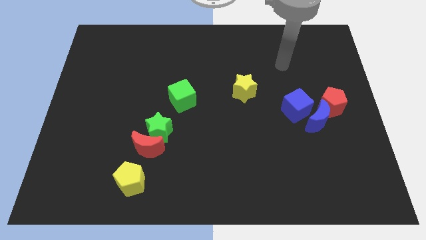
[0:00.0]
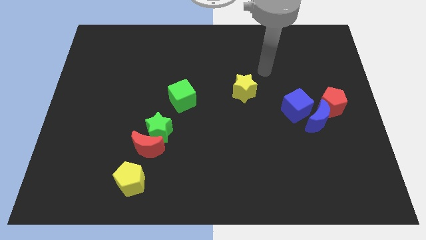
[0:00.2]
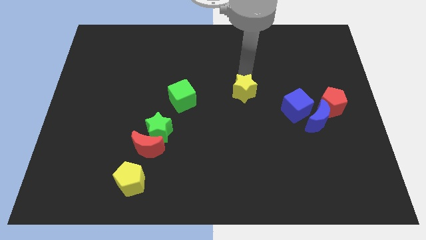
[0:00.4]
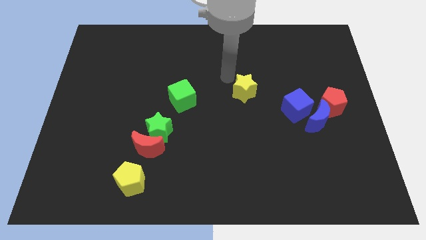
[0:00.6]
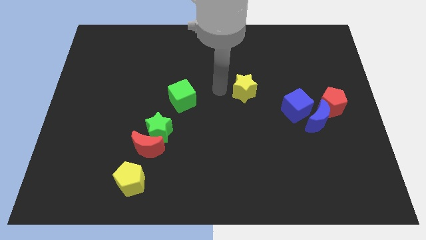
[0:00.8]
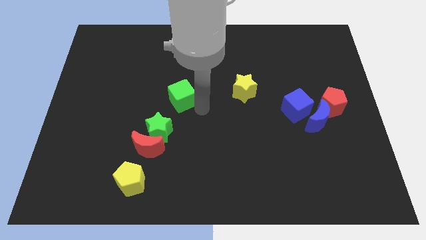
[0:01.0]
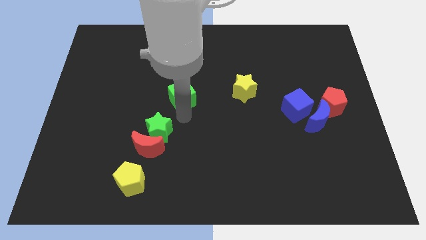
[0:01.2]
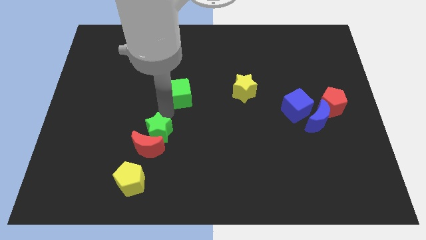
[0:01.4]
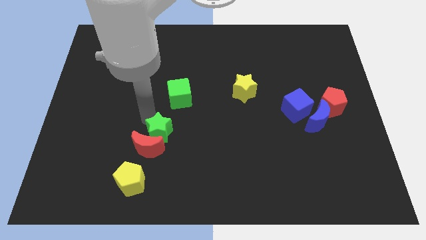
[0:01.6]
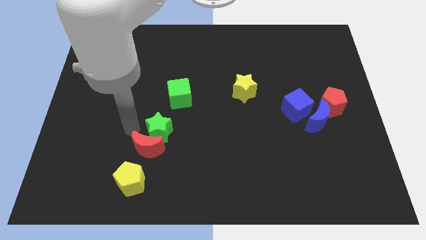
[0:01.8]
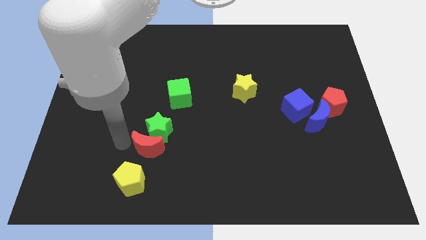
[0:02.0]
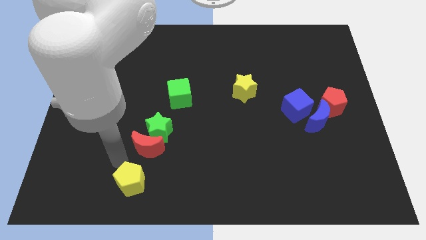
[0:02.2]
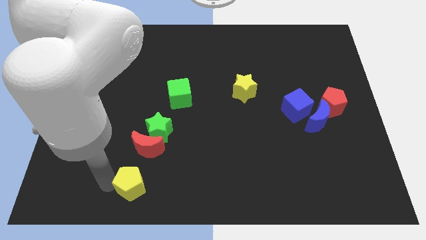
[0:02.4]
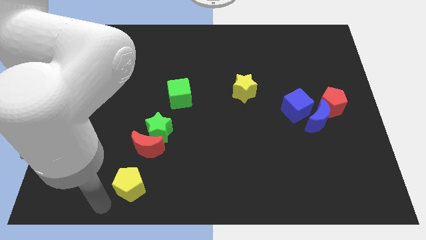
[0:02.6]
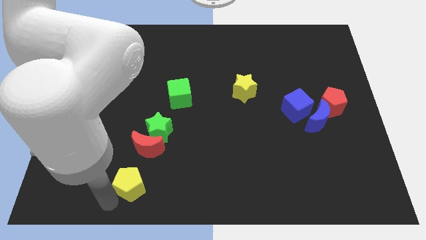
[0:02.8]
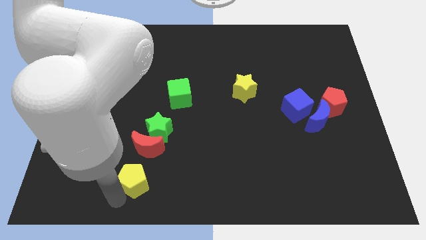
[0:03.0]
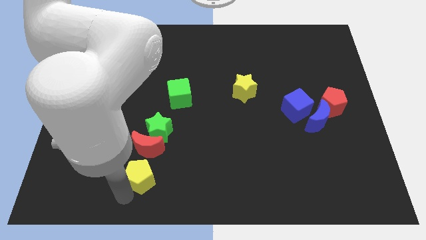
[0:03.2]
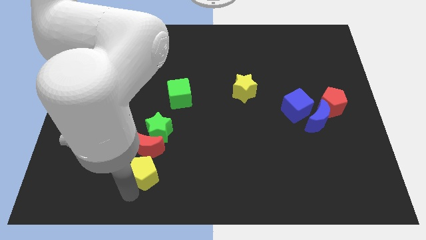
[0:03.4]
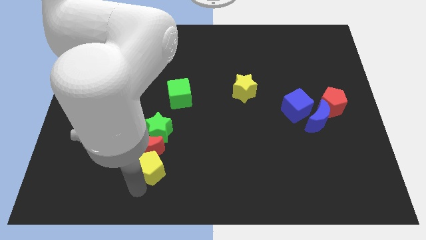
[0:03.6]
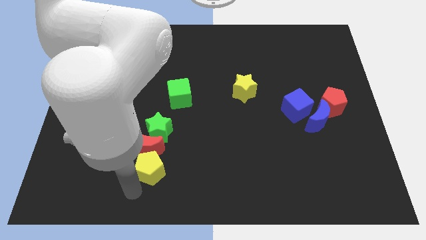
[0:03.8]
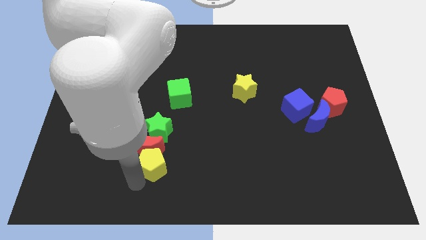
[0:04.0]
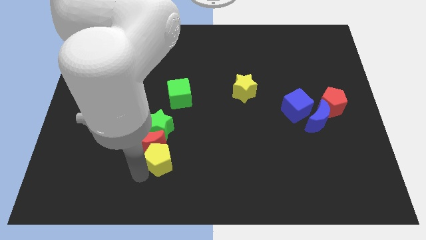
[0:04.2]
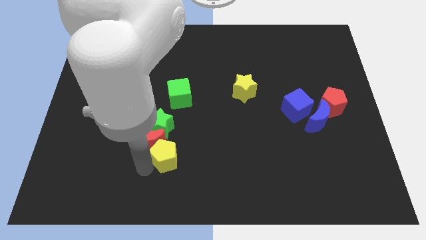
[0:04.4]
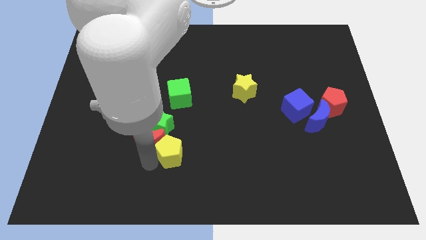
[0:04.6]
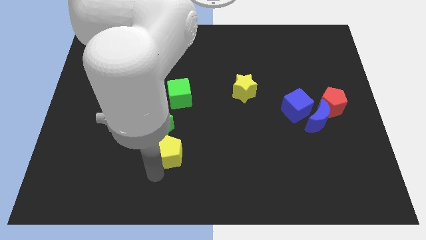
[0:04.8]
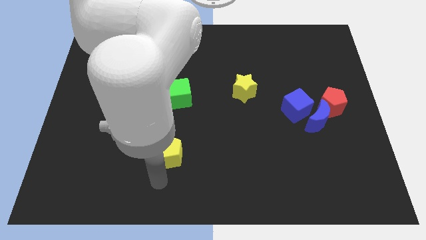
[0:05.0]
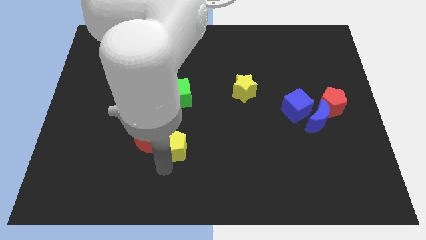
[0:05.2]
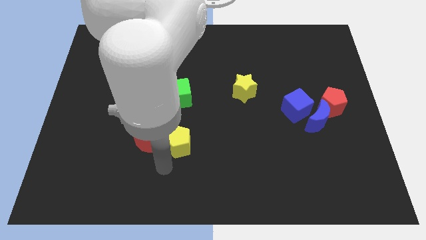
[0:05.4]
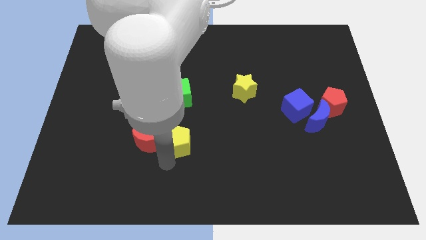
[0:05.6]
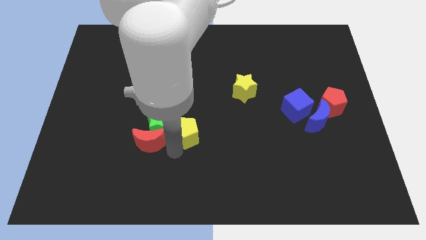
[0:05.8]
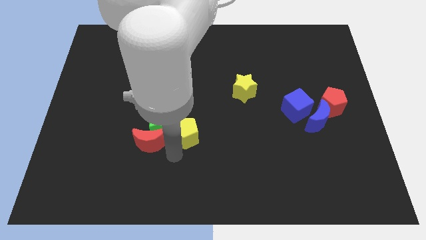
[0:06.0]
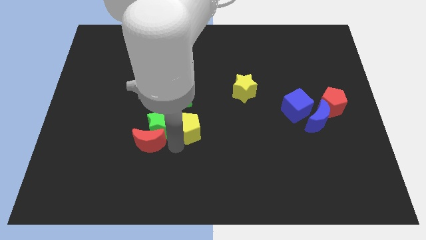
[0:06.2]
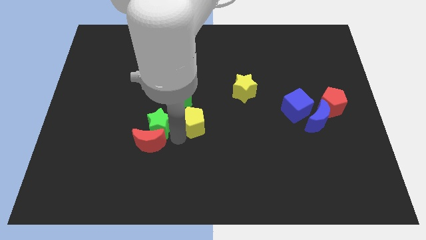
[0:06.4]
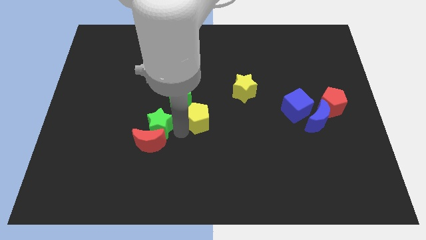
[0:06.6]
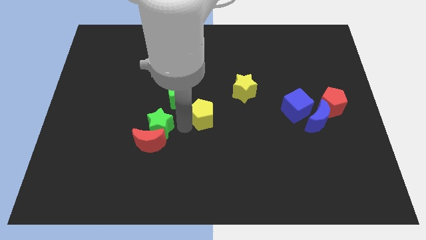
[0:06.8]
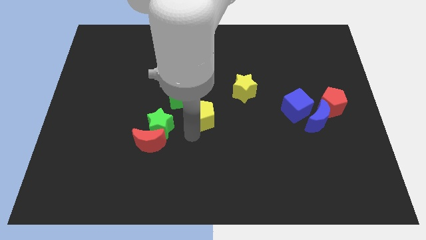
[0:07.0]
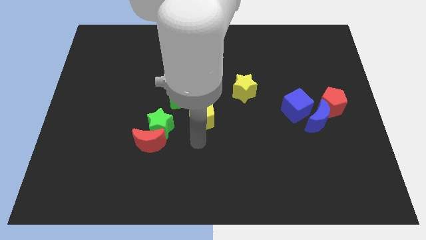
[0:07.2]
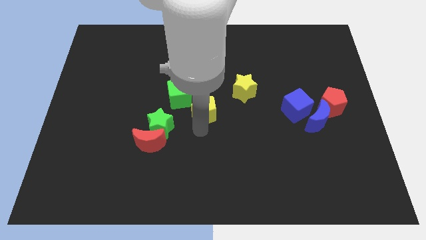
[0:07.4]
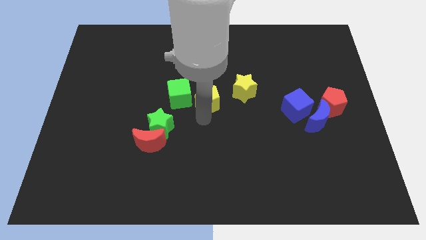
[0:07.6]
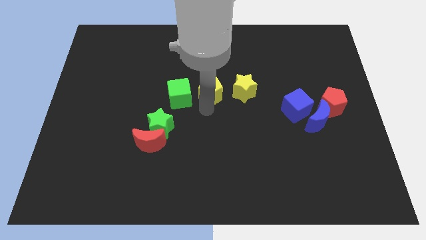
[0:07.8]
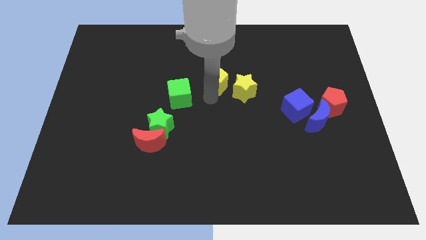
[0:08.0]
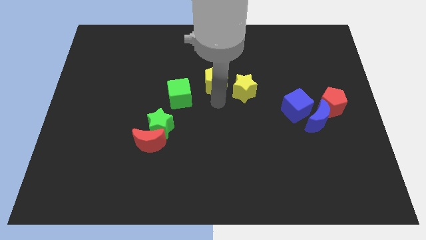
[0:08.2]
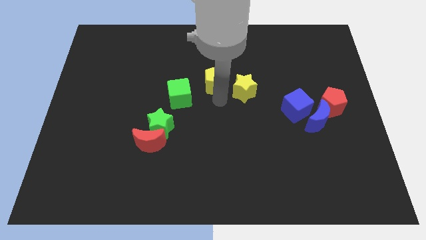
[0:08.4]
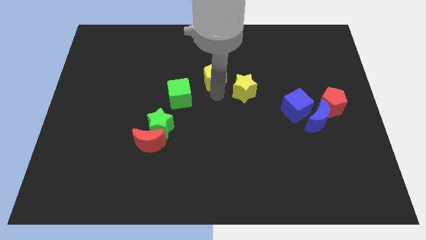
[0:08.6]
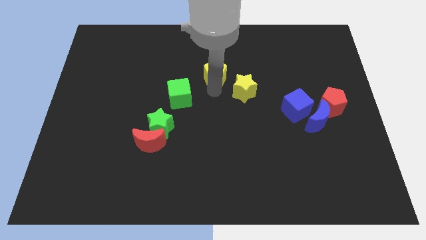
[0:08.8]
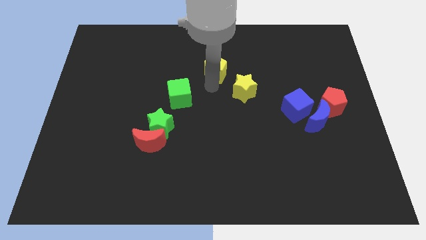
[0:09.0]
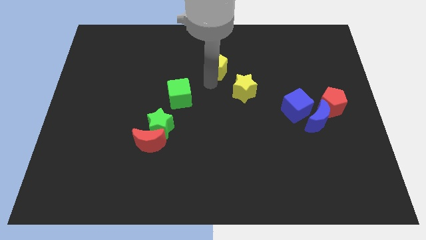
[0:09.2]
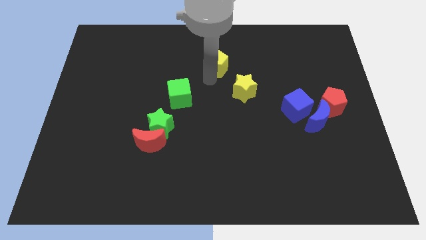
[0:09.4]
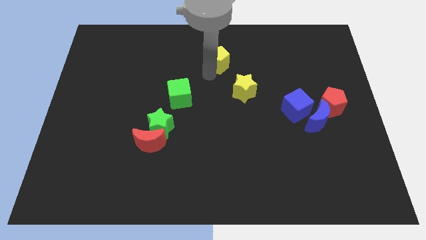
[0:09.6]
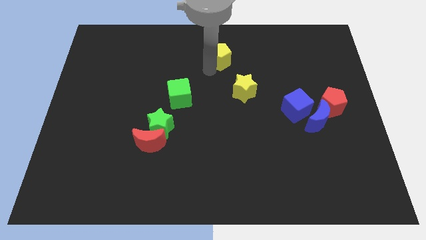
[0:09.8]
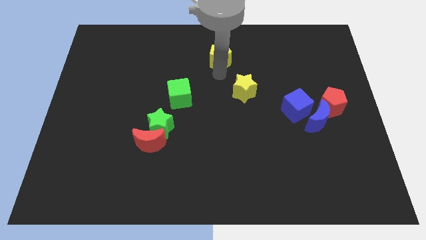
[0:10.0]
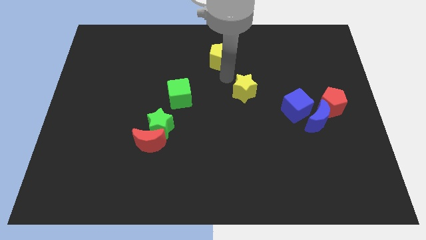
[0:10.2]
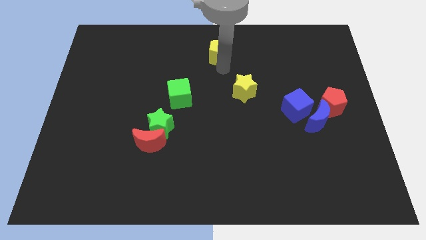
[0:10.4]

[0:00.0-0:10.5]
slide the yellow pentagon to the towards your base

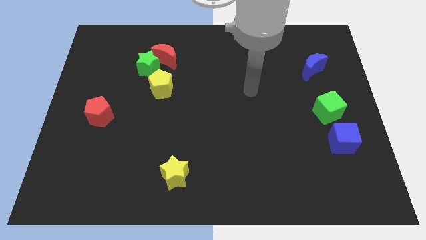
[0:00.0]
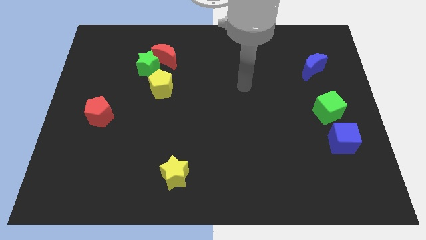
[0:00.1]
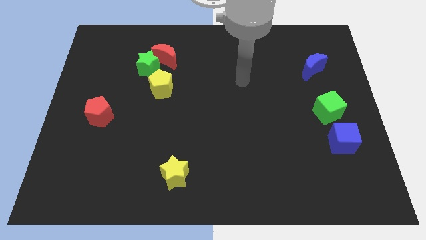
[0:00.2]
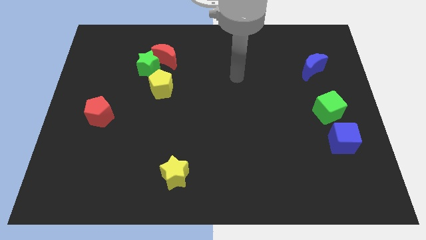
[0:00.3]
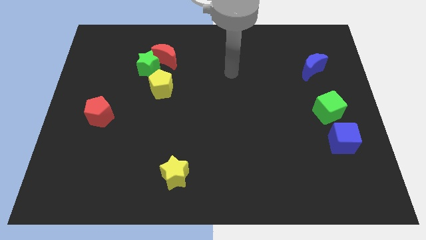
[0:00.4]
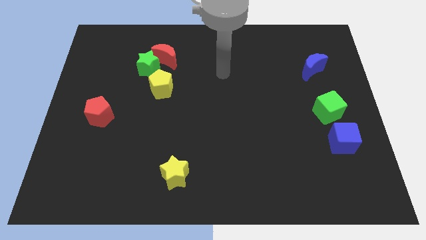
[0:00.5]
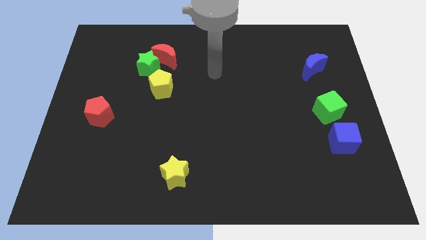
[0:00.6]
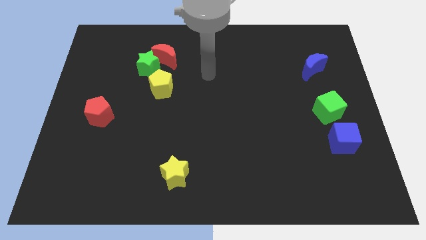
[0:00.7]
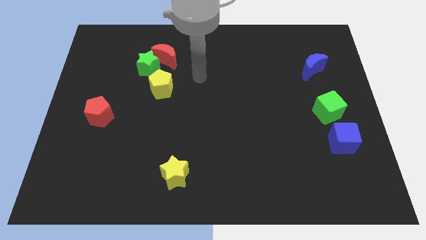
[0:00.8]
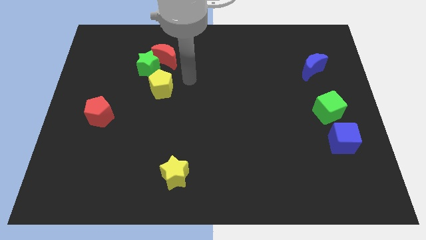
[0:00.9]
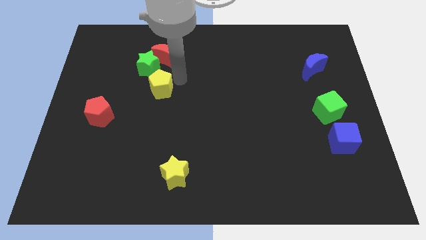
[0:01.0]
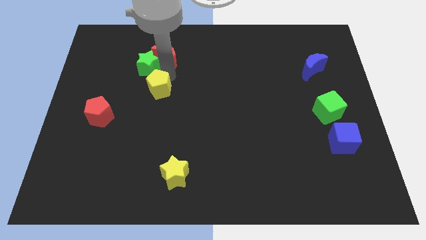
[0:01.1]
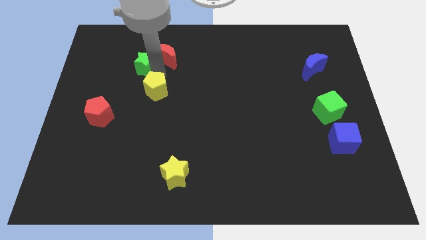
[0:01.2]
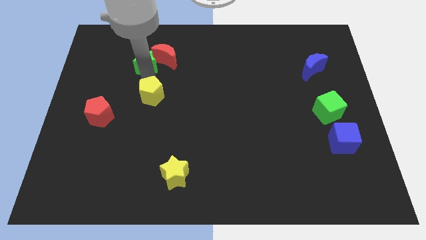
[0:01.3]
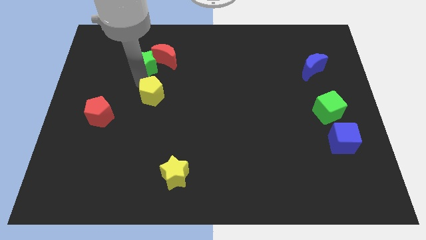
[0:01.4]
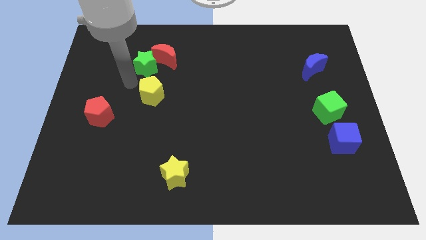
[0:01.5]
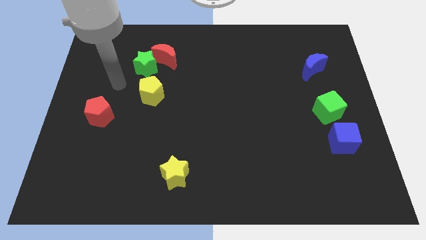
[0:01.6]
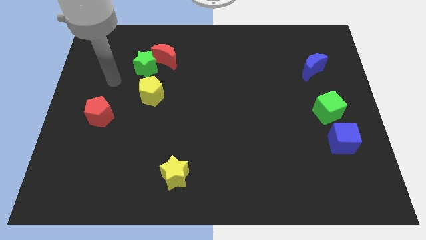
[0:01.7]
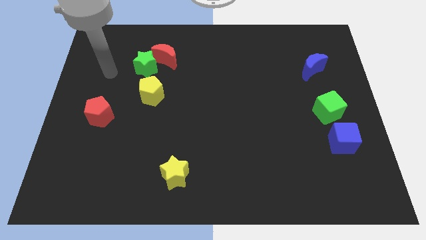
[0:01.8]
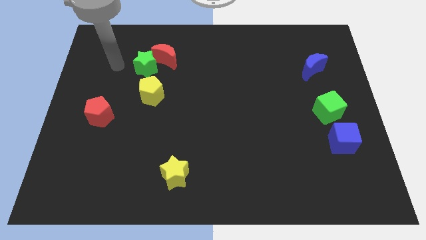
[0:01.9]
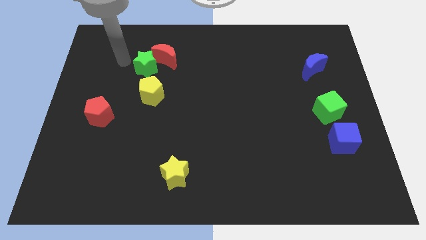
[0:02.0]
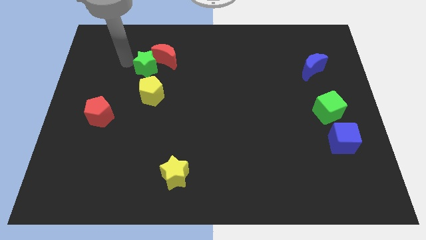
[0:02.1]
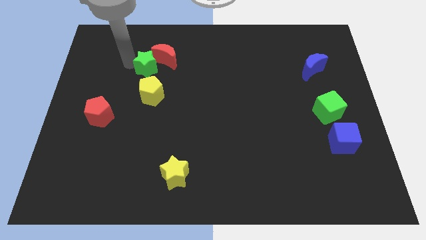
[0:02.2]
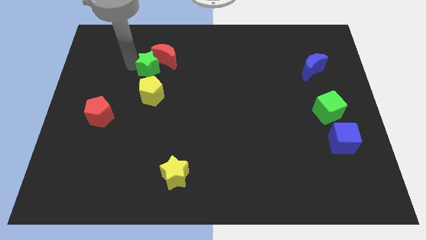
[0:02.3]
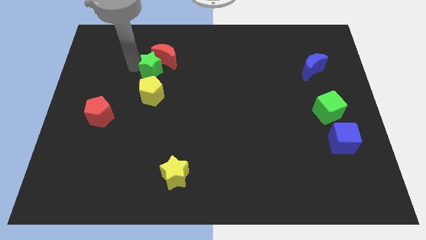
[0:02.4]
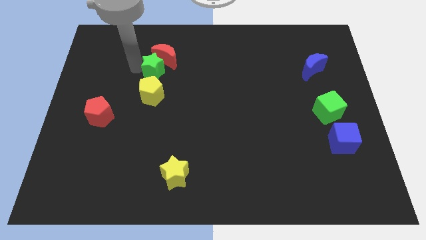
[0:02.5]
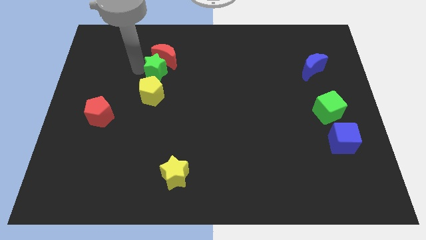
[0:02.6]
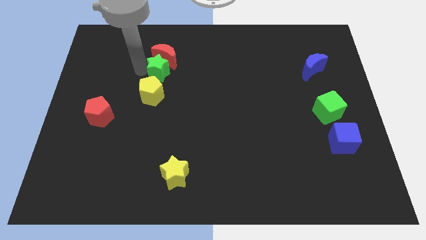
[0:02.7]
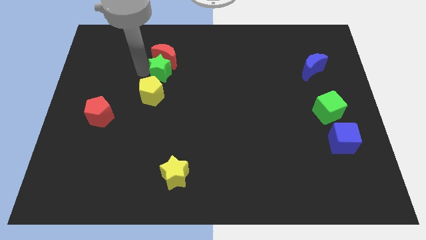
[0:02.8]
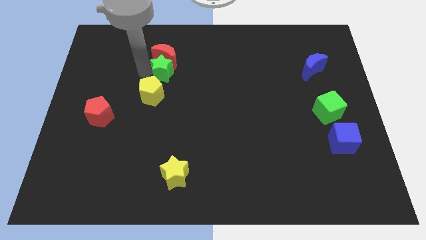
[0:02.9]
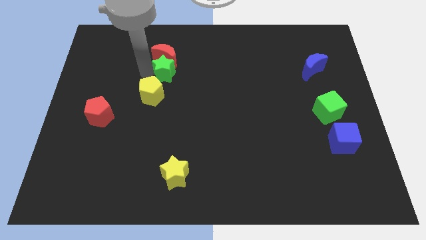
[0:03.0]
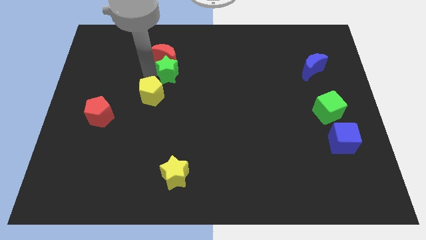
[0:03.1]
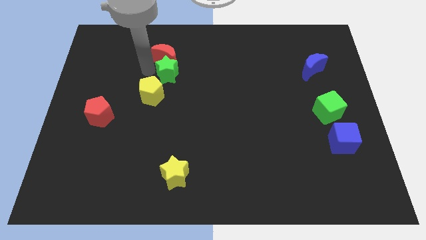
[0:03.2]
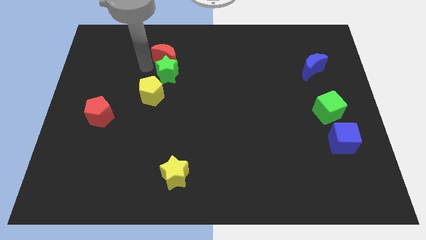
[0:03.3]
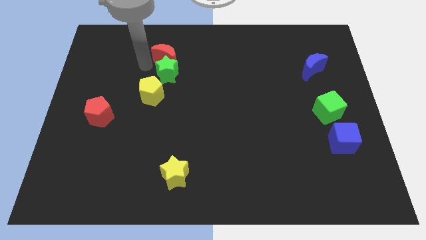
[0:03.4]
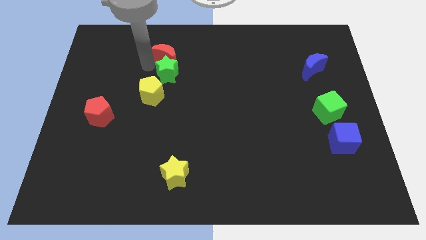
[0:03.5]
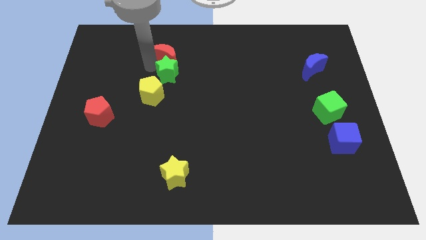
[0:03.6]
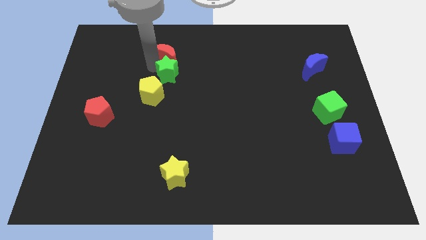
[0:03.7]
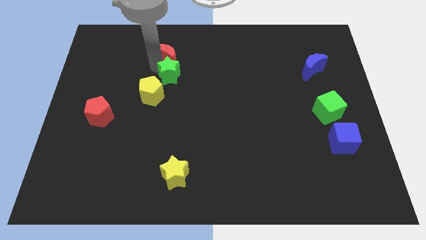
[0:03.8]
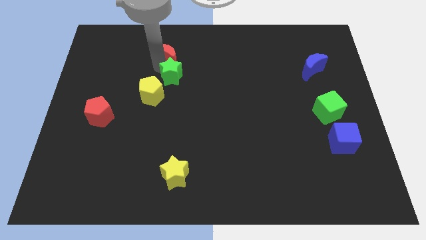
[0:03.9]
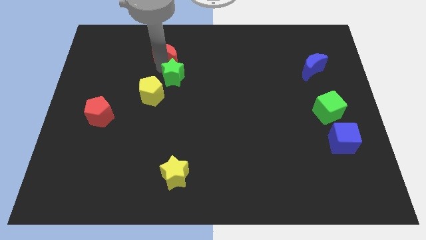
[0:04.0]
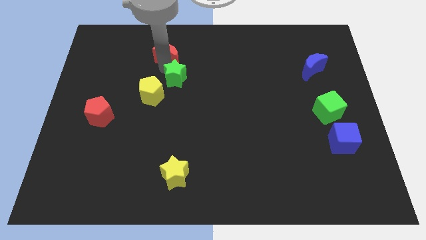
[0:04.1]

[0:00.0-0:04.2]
push the green star to the center of the board
